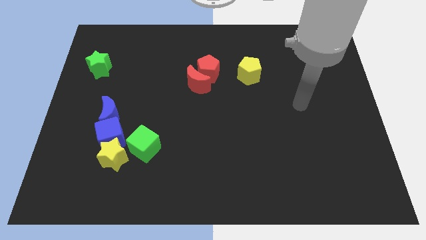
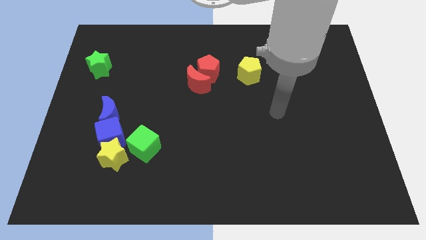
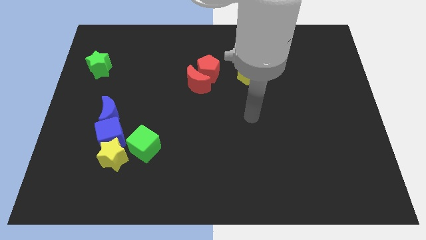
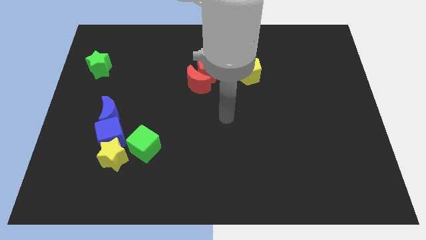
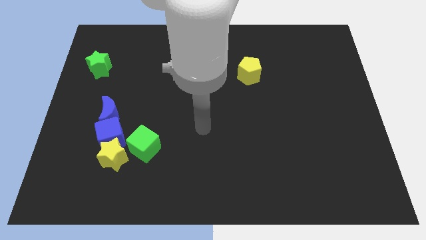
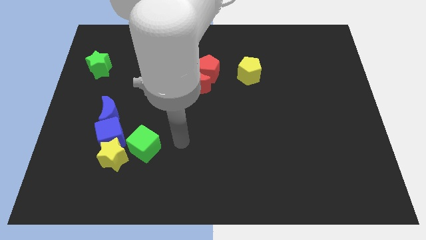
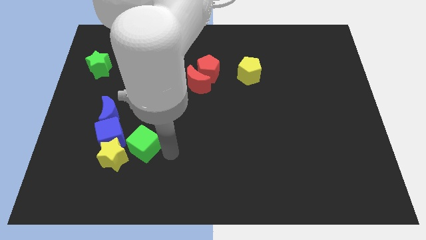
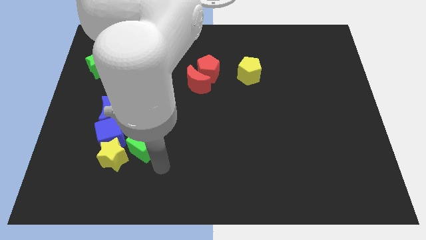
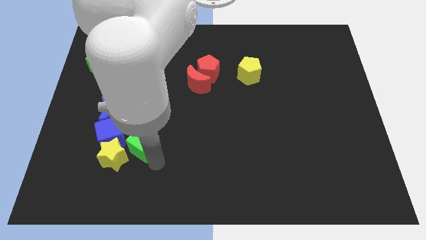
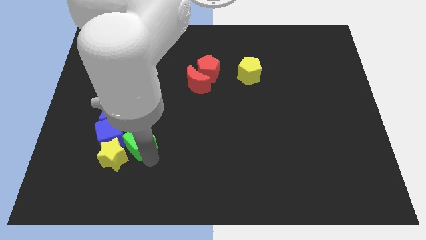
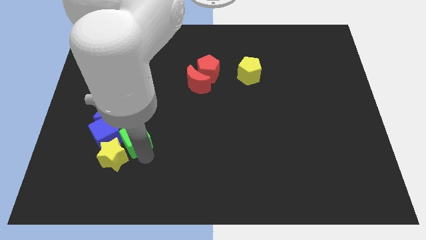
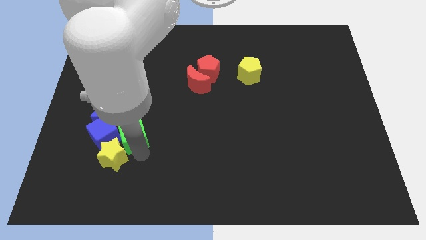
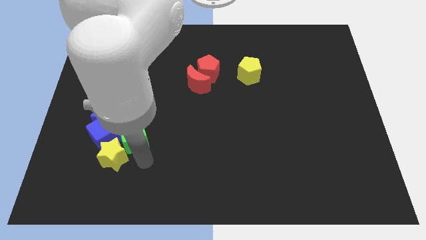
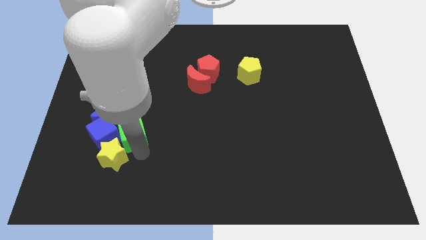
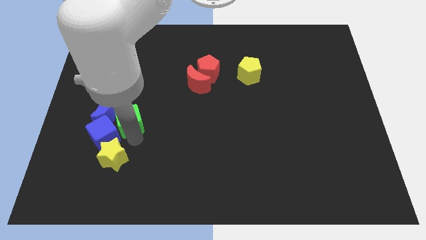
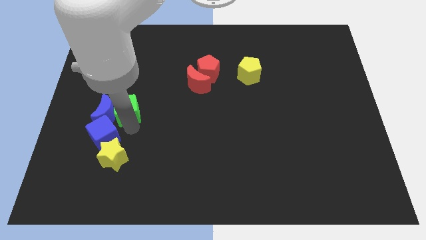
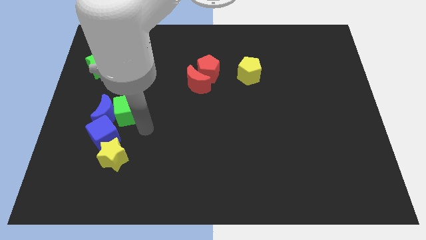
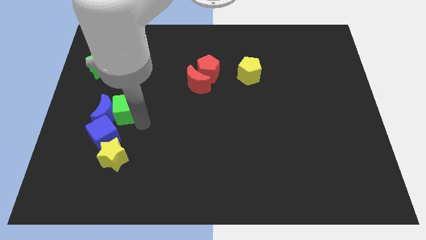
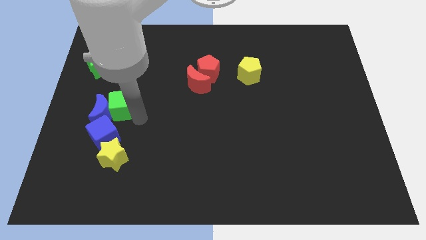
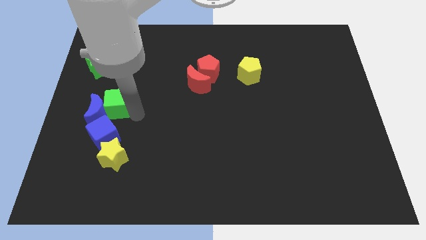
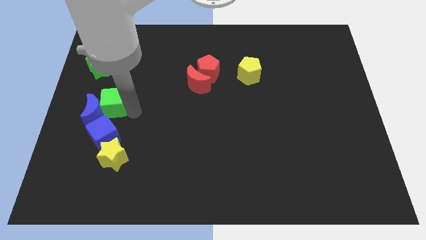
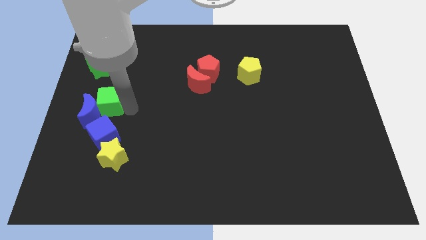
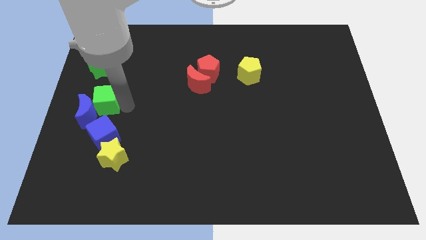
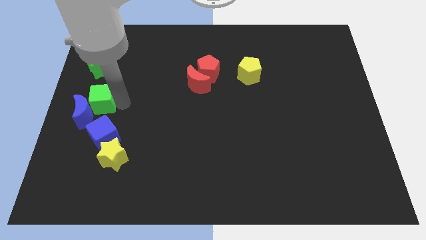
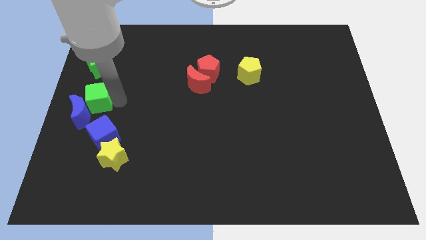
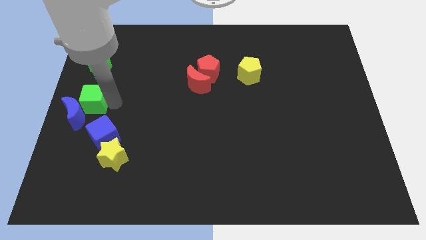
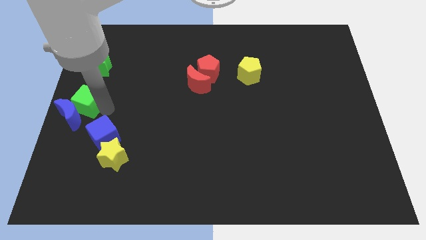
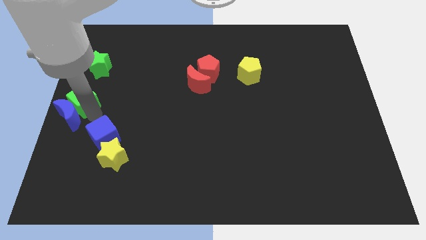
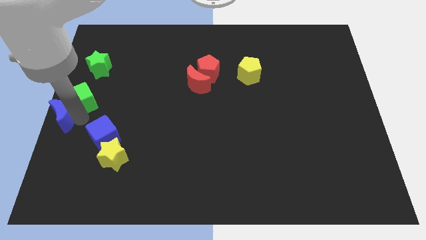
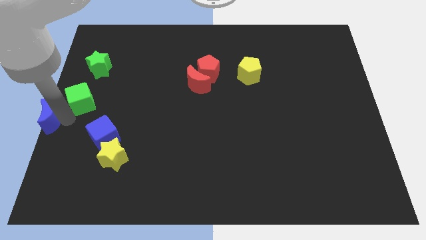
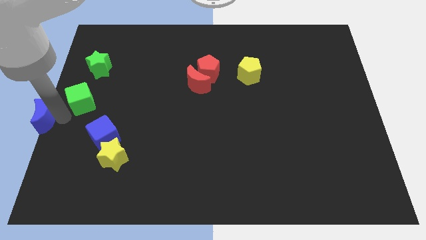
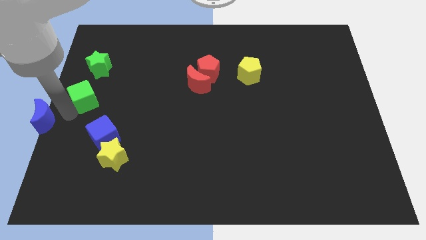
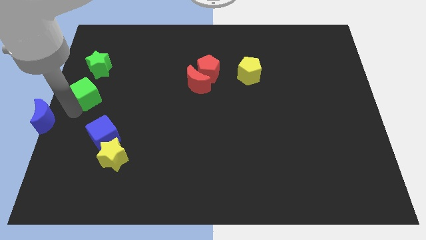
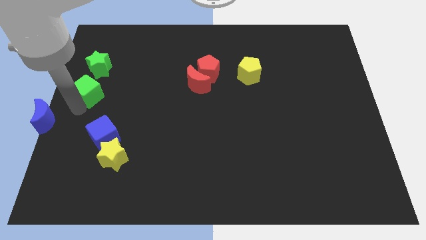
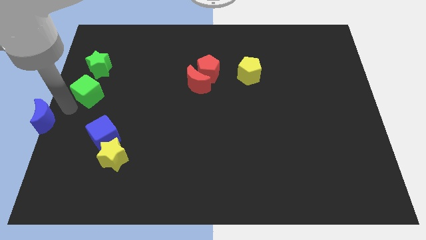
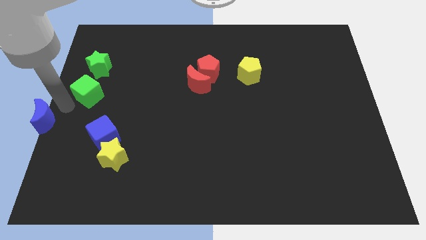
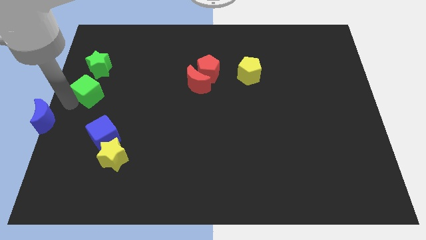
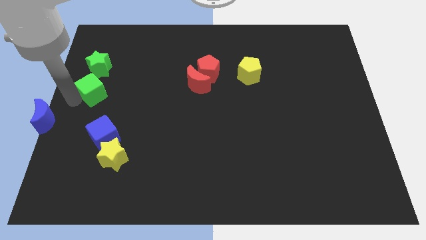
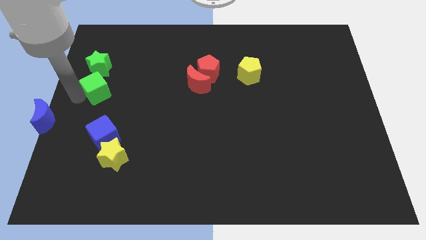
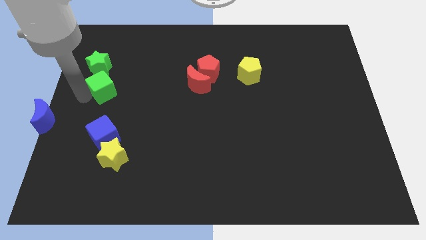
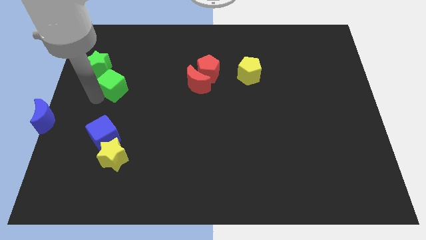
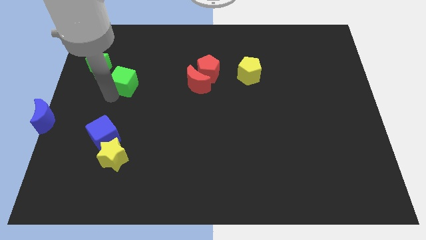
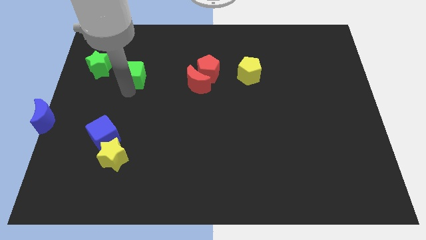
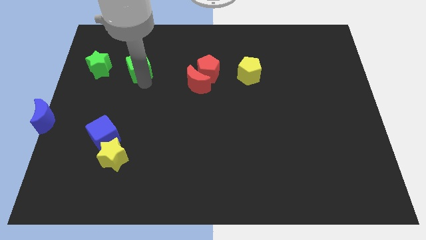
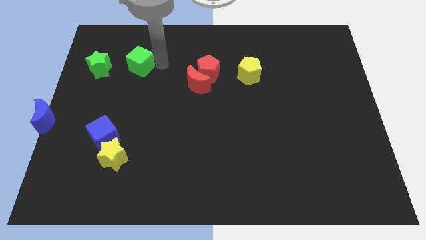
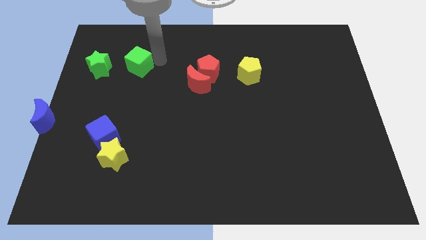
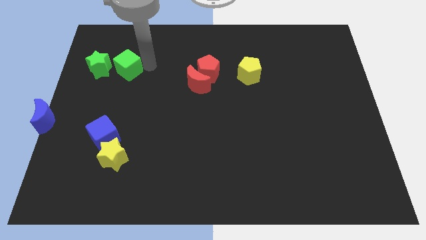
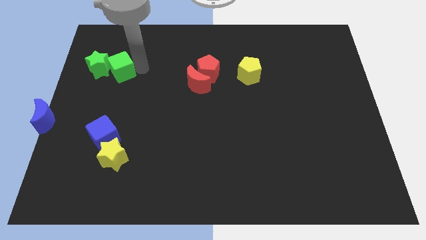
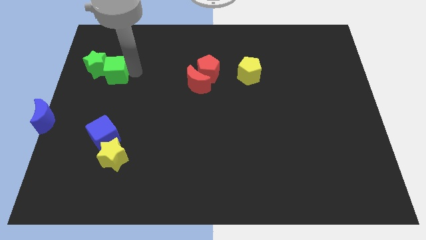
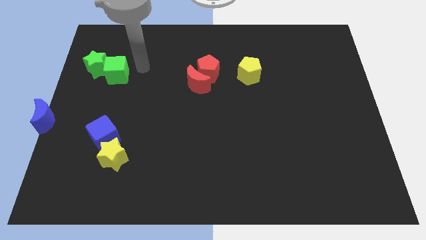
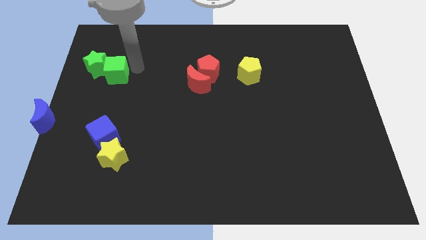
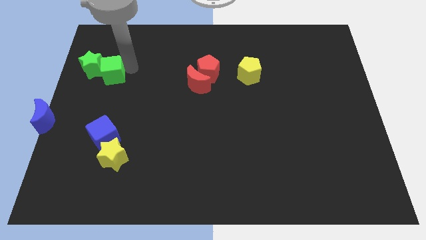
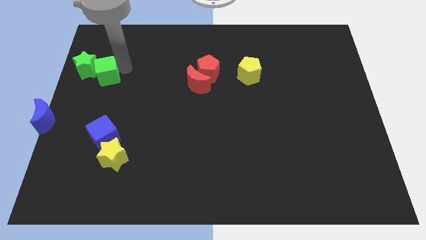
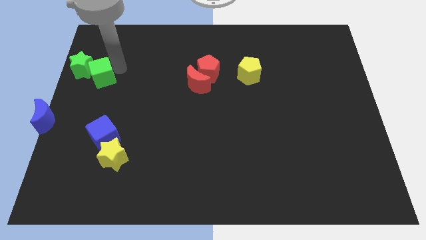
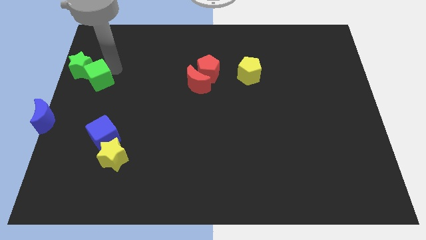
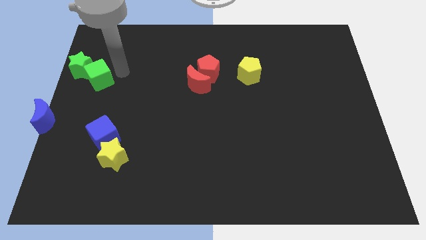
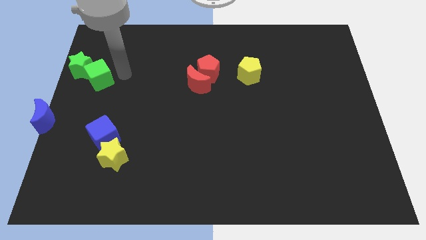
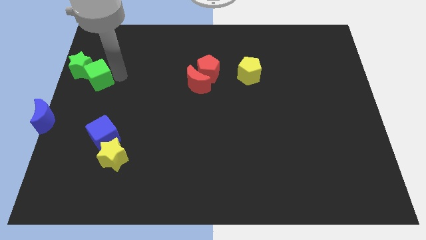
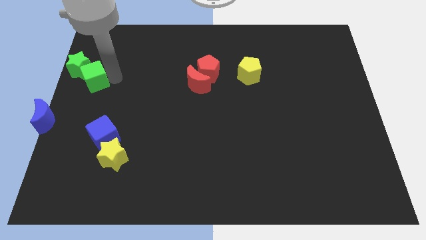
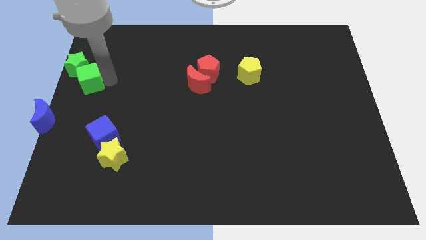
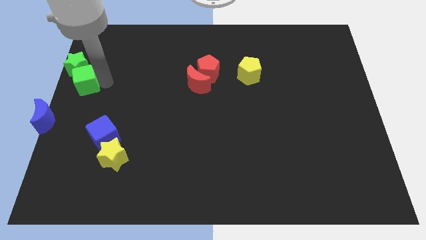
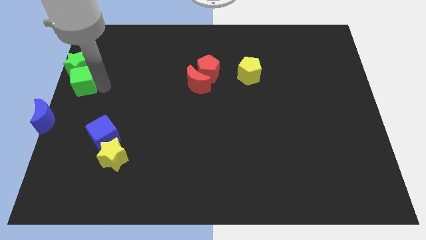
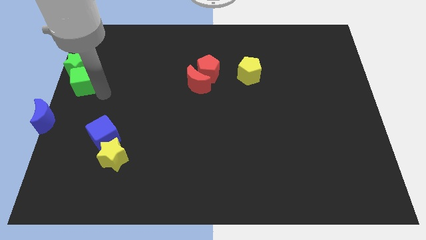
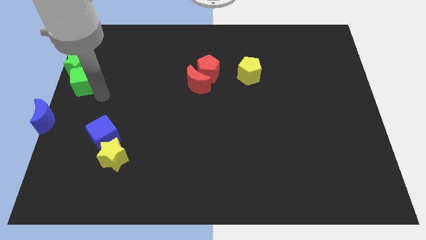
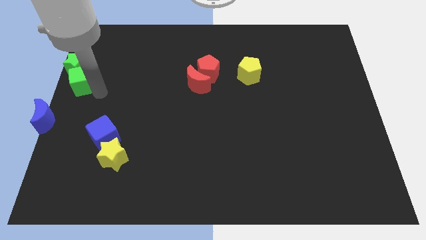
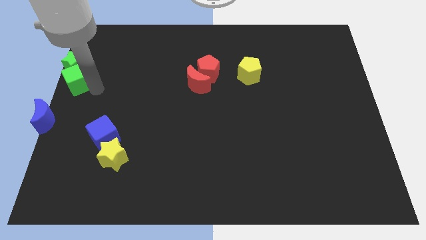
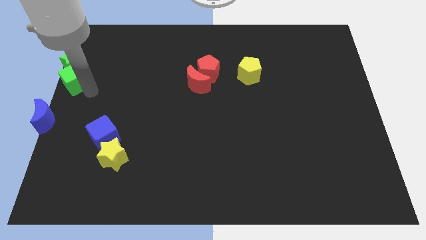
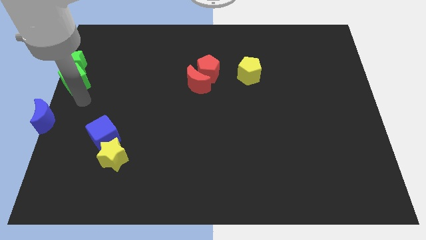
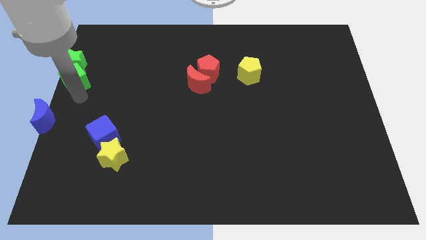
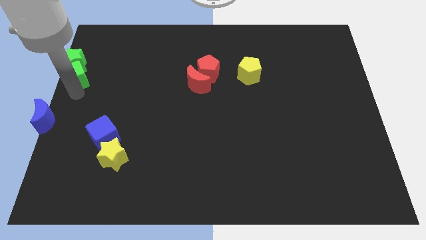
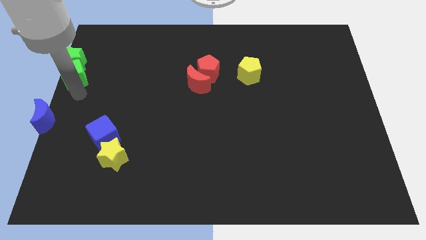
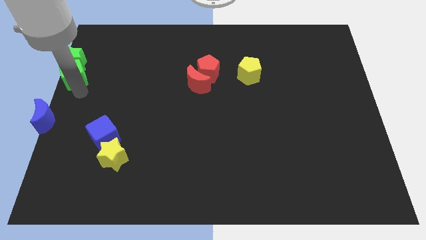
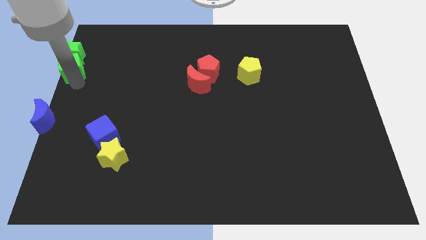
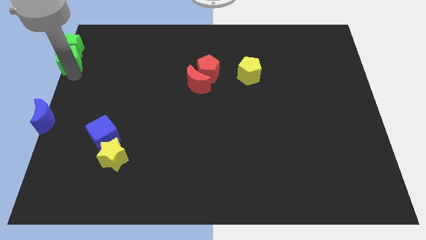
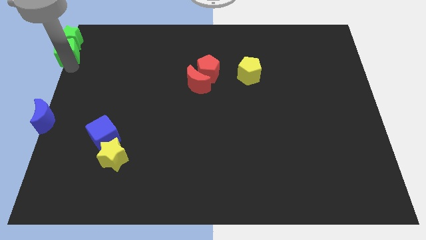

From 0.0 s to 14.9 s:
push the green cube to the upper left corner
